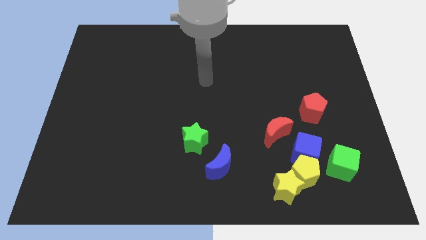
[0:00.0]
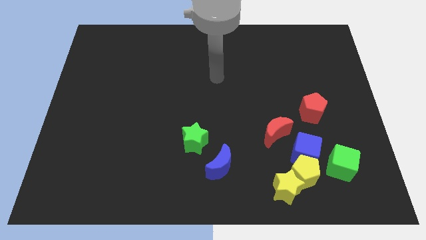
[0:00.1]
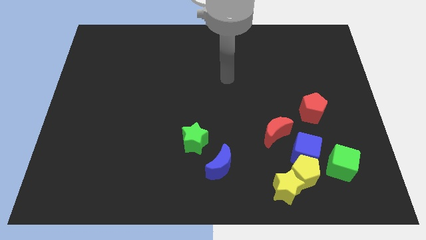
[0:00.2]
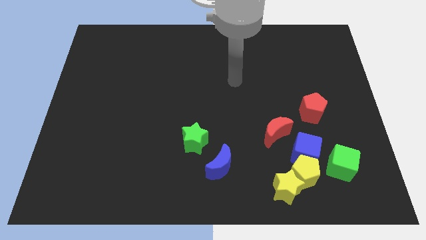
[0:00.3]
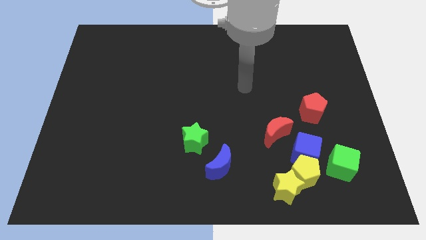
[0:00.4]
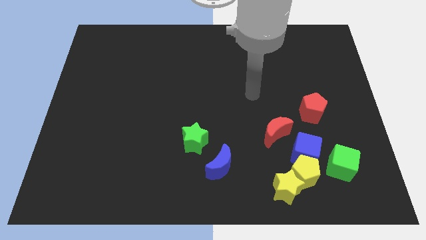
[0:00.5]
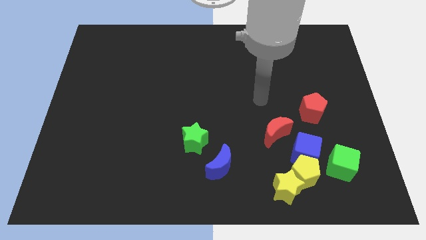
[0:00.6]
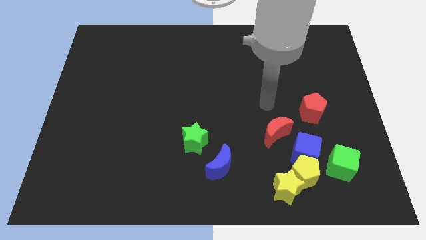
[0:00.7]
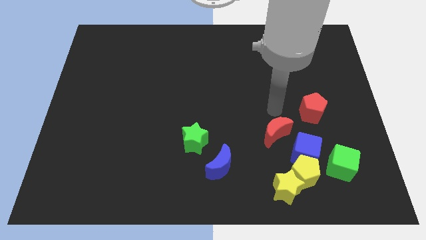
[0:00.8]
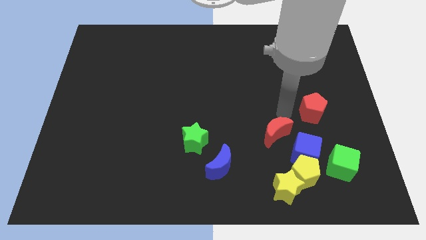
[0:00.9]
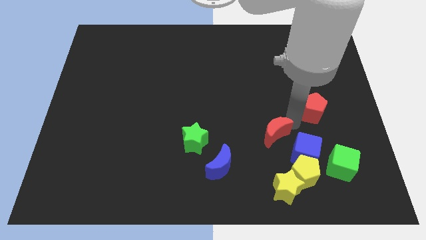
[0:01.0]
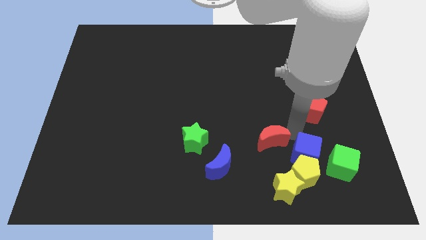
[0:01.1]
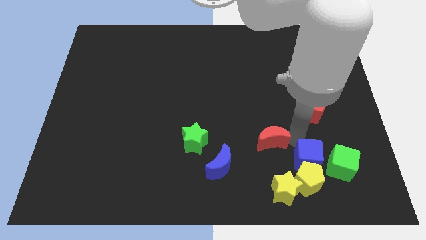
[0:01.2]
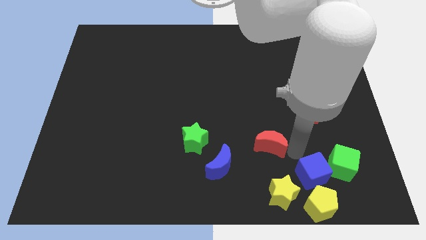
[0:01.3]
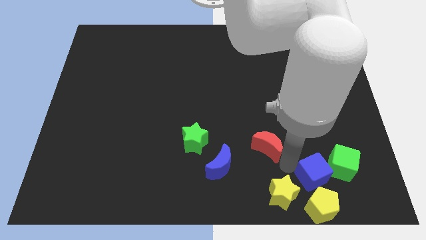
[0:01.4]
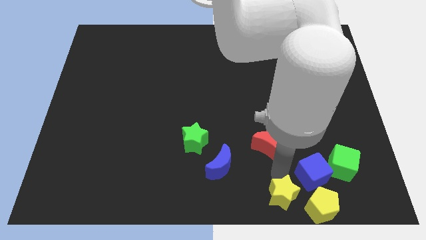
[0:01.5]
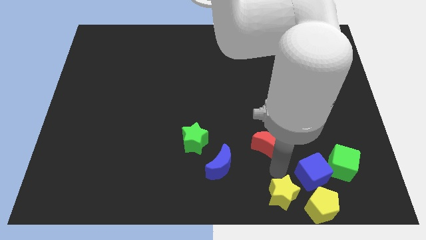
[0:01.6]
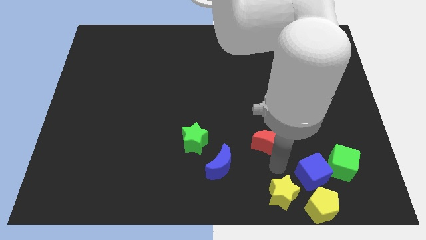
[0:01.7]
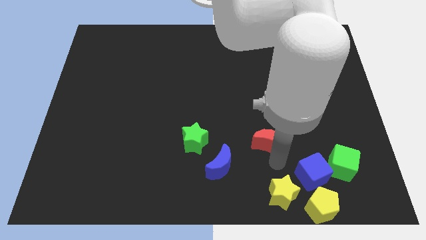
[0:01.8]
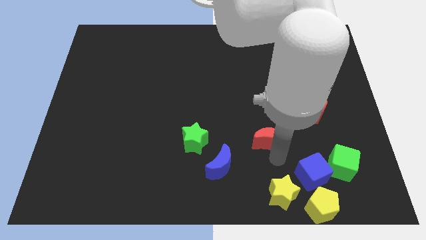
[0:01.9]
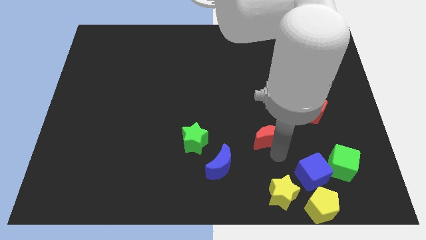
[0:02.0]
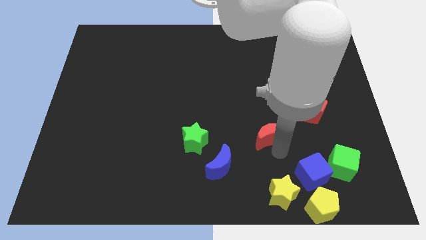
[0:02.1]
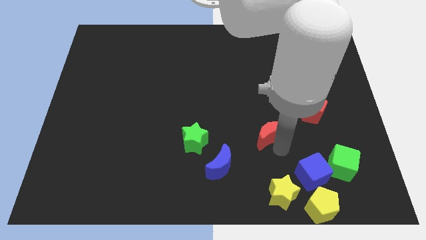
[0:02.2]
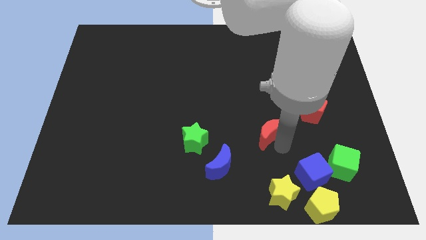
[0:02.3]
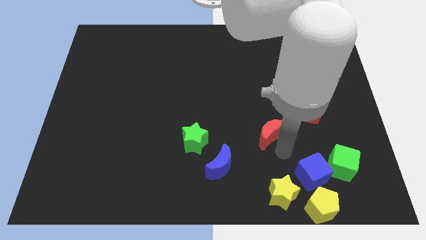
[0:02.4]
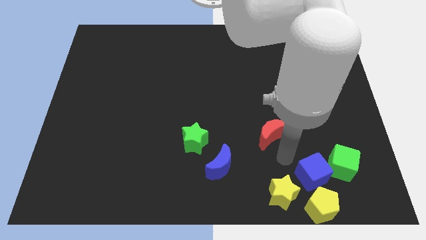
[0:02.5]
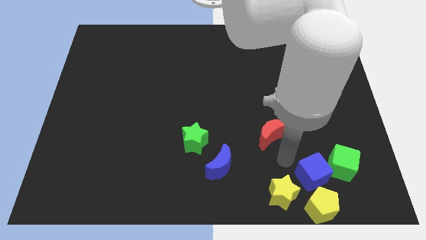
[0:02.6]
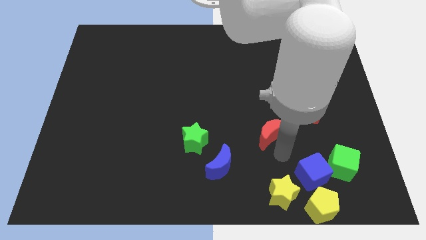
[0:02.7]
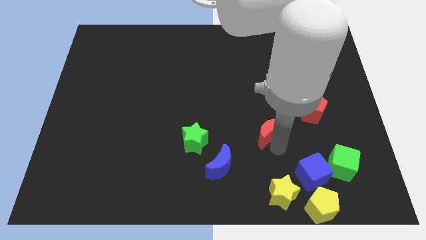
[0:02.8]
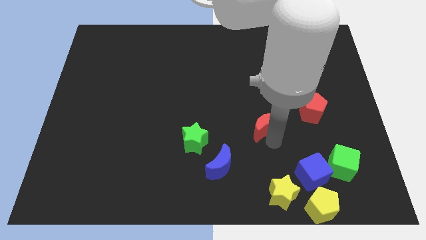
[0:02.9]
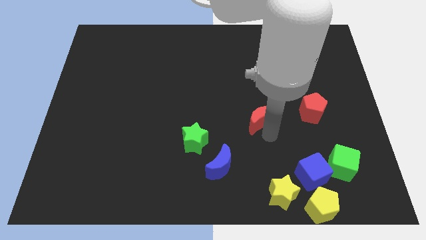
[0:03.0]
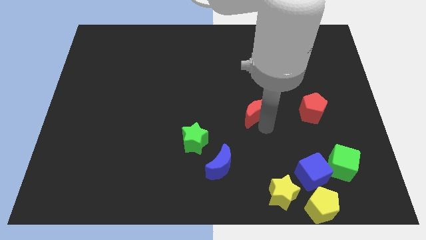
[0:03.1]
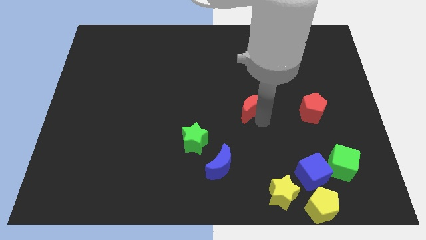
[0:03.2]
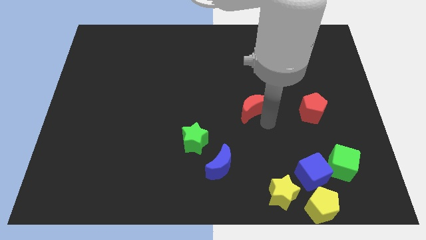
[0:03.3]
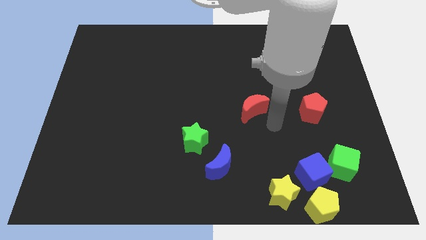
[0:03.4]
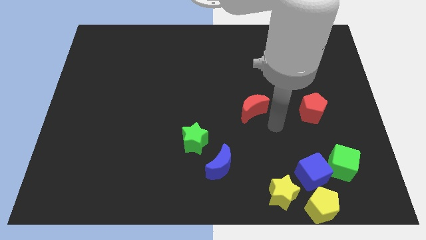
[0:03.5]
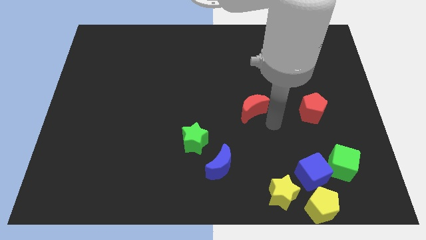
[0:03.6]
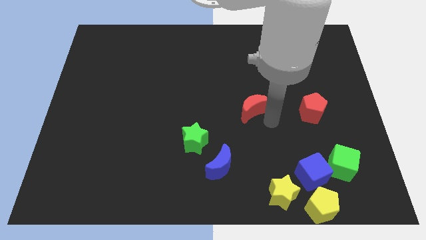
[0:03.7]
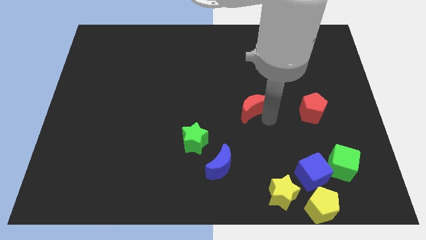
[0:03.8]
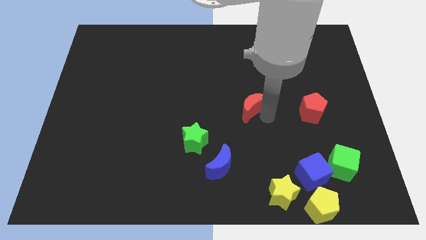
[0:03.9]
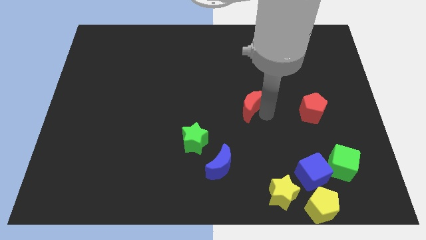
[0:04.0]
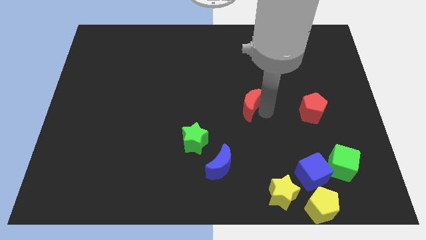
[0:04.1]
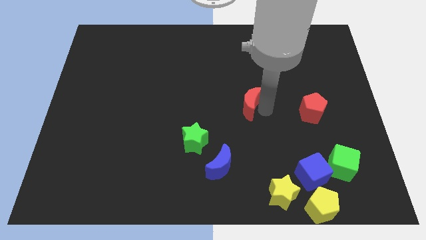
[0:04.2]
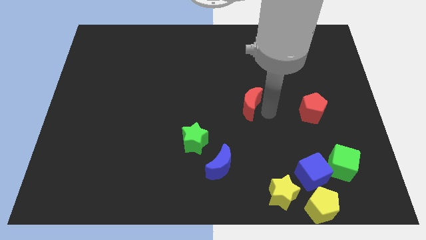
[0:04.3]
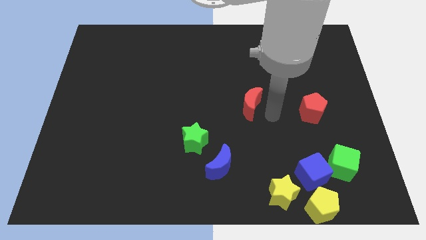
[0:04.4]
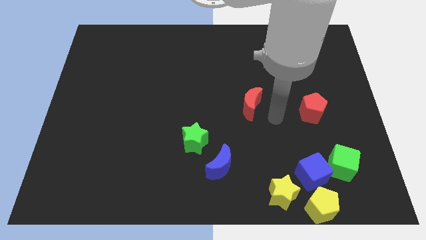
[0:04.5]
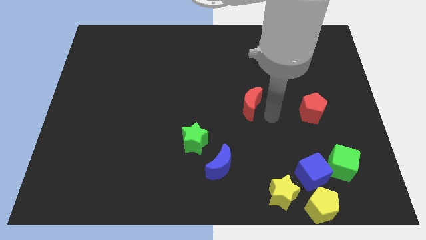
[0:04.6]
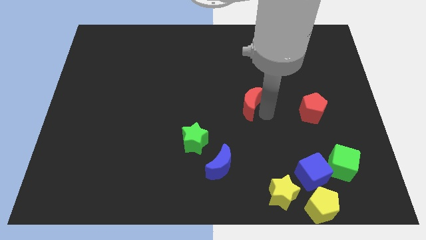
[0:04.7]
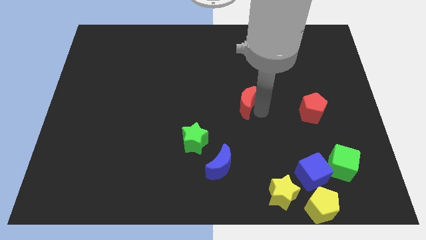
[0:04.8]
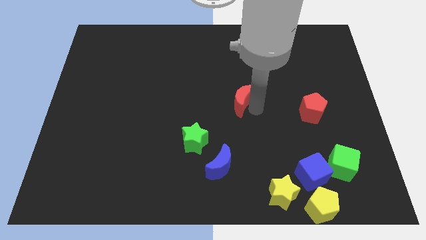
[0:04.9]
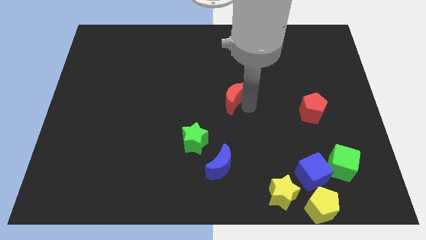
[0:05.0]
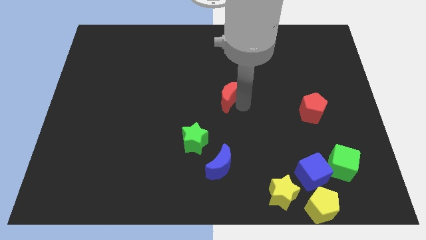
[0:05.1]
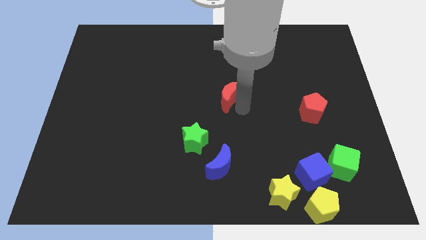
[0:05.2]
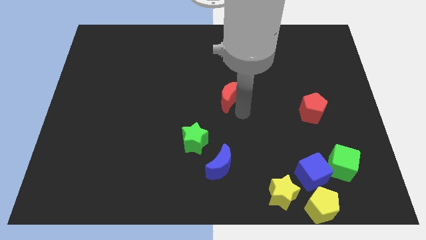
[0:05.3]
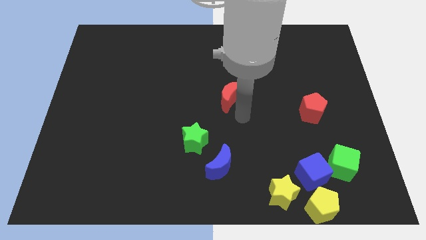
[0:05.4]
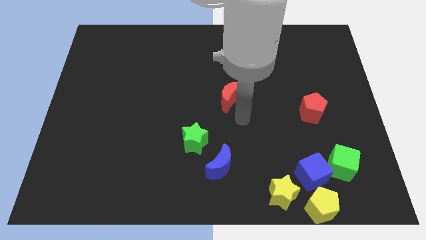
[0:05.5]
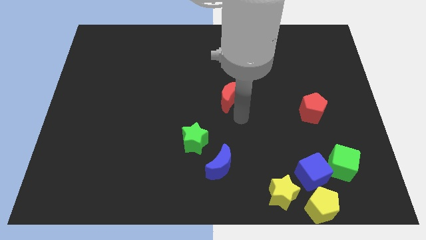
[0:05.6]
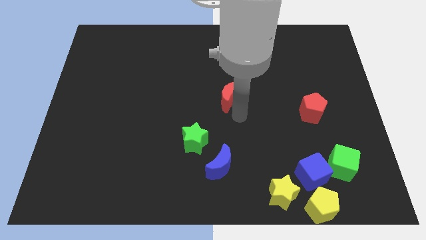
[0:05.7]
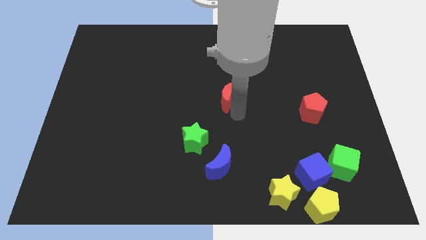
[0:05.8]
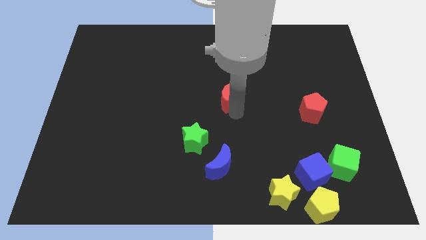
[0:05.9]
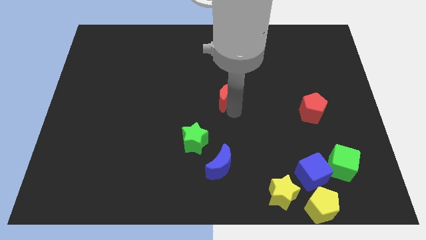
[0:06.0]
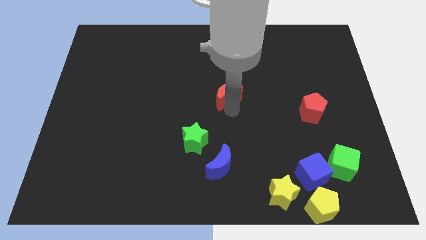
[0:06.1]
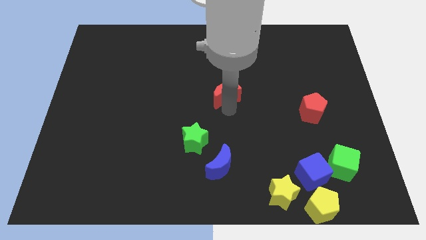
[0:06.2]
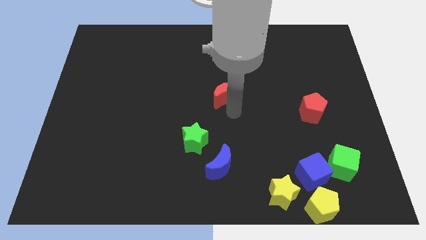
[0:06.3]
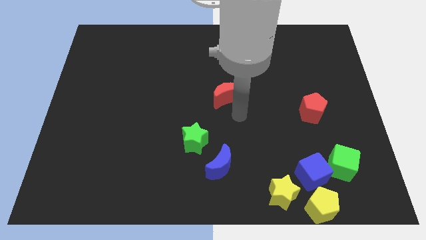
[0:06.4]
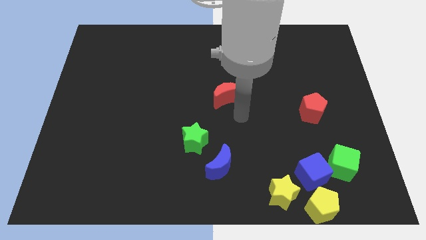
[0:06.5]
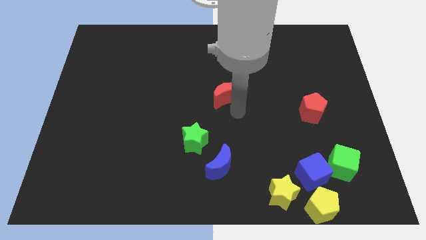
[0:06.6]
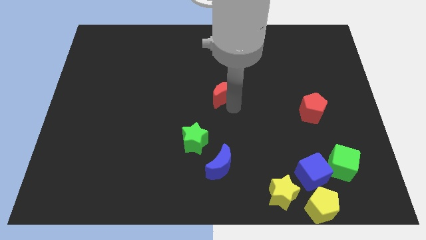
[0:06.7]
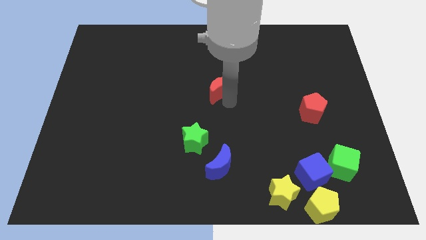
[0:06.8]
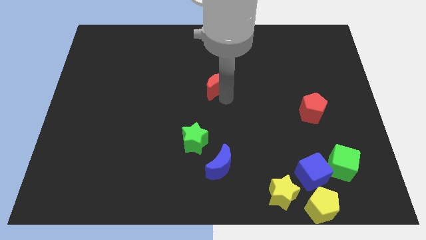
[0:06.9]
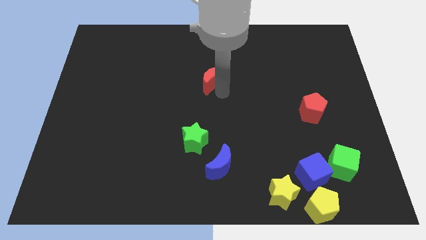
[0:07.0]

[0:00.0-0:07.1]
slide the red moon diagonally upwards and left

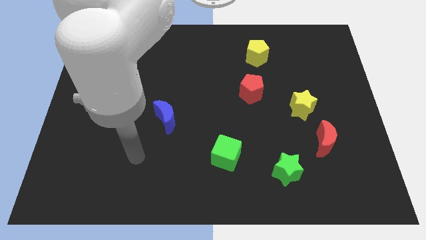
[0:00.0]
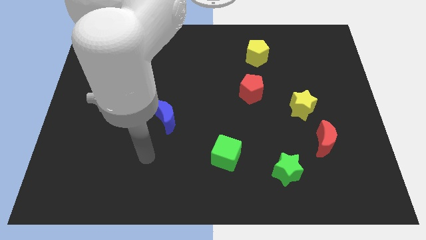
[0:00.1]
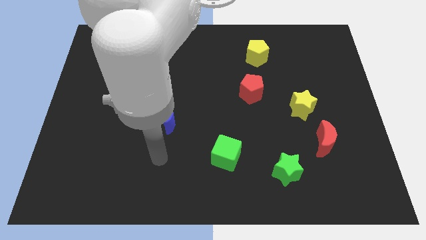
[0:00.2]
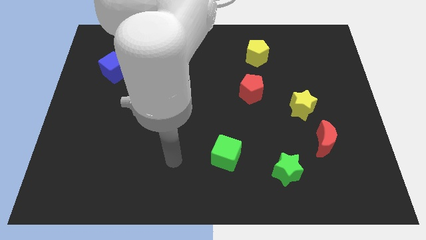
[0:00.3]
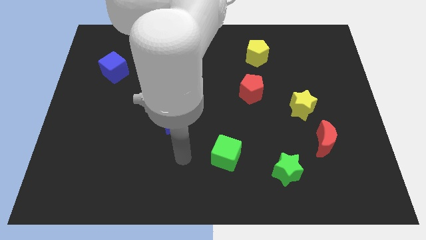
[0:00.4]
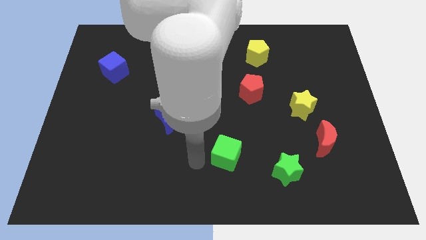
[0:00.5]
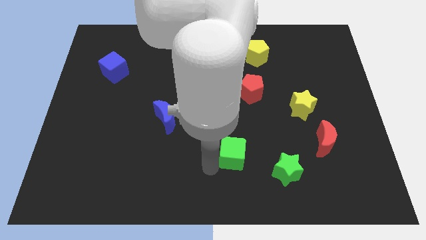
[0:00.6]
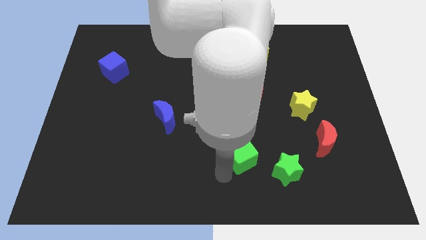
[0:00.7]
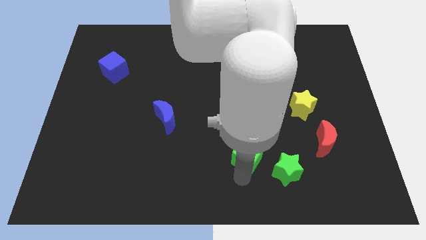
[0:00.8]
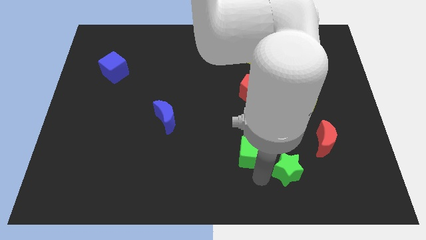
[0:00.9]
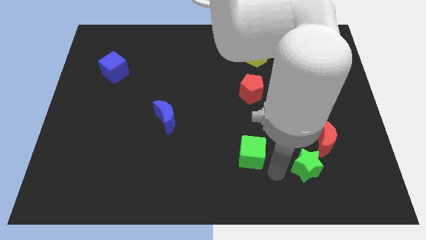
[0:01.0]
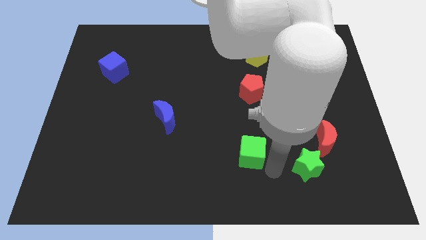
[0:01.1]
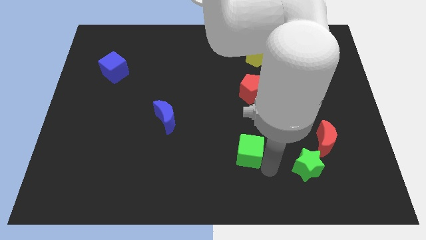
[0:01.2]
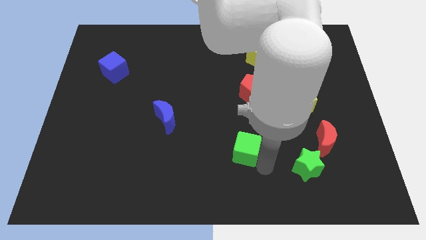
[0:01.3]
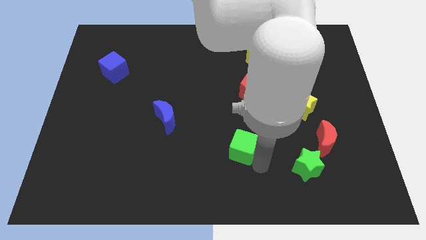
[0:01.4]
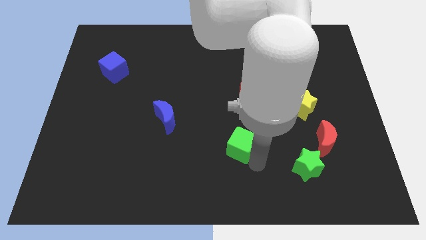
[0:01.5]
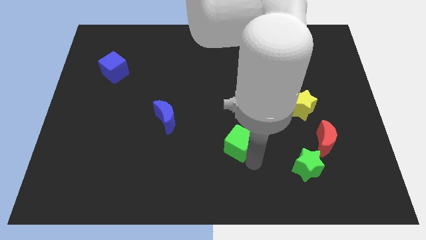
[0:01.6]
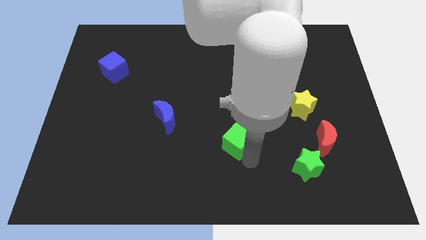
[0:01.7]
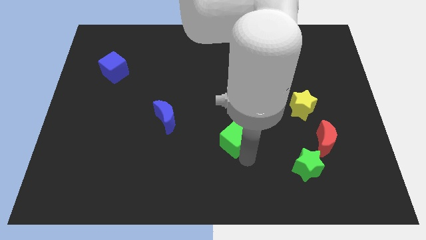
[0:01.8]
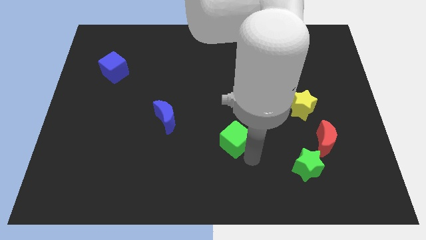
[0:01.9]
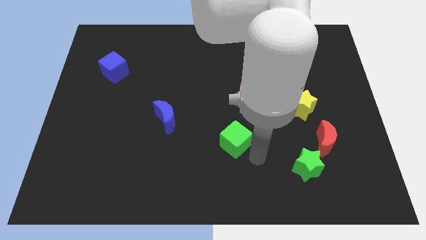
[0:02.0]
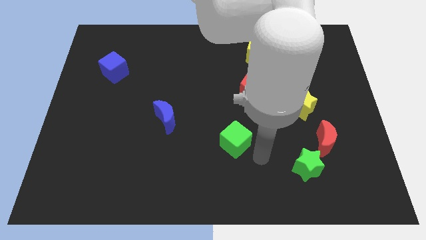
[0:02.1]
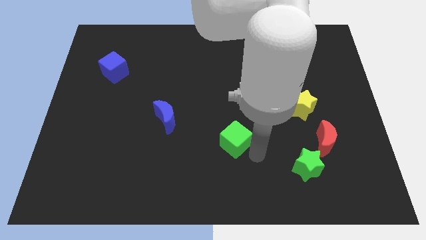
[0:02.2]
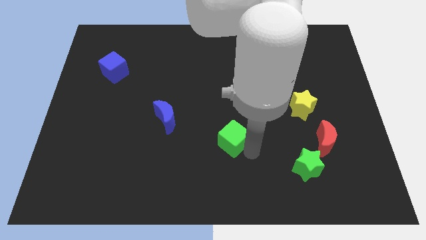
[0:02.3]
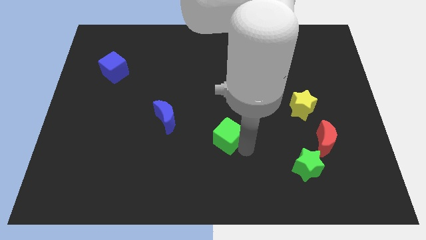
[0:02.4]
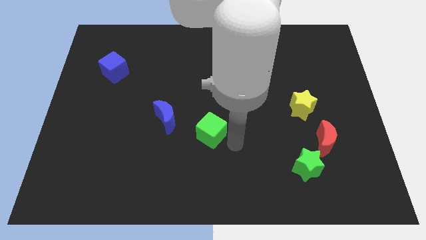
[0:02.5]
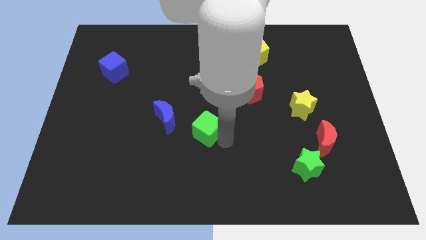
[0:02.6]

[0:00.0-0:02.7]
push the green cube somewhat up and then left
